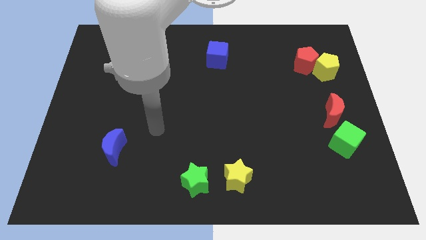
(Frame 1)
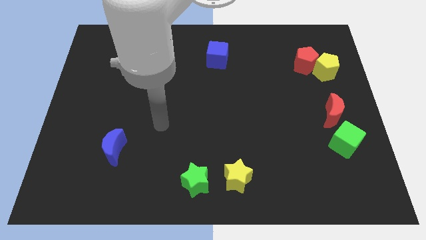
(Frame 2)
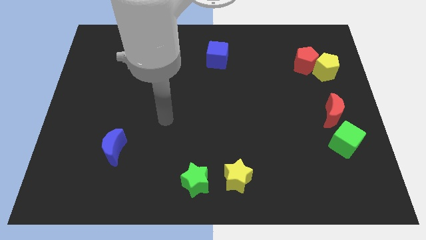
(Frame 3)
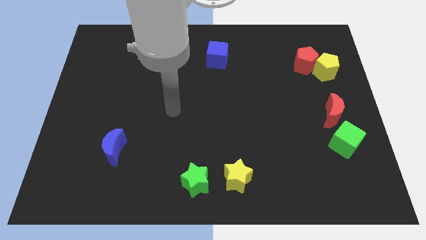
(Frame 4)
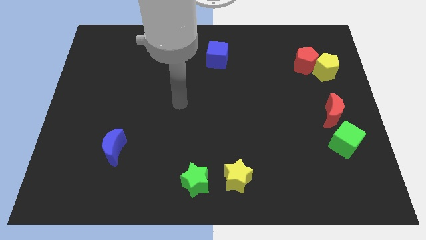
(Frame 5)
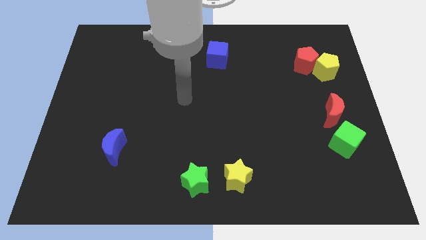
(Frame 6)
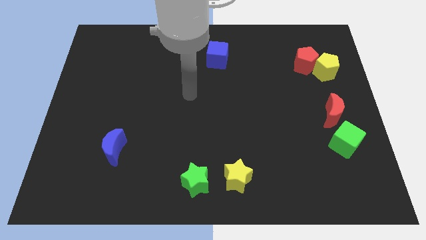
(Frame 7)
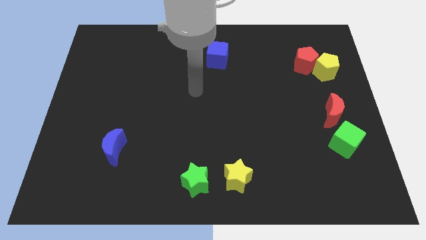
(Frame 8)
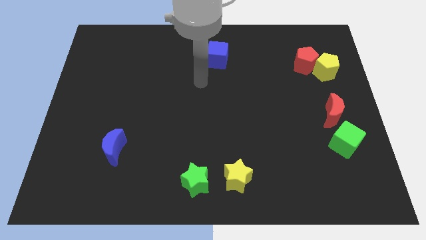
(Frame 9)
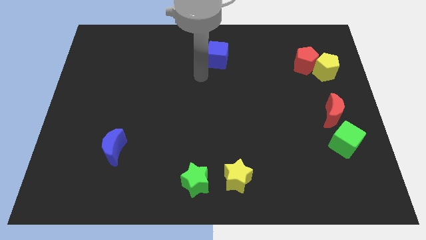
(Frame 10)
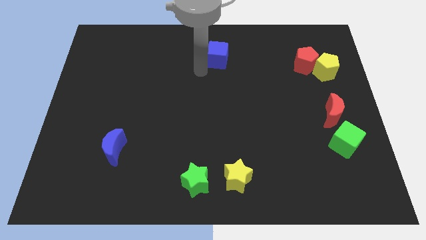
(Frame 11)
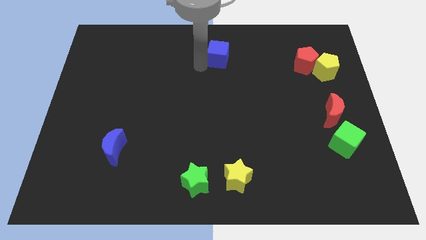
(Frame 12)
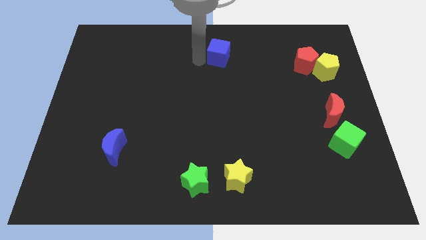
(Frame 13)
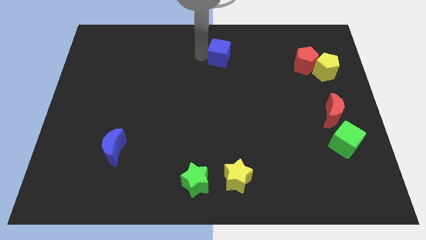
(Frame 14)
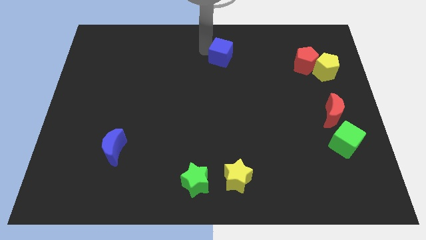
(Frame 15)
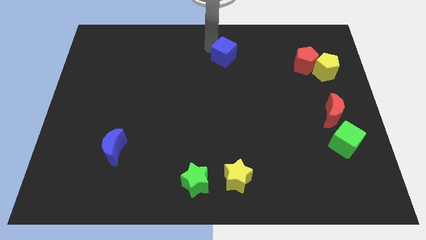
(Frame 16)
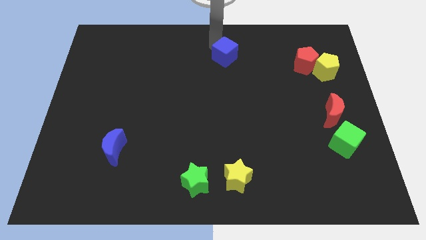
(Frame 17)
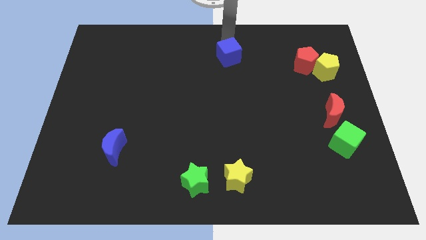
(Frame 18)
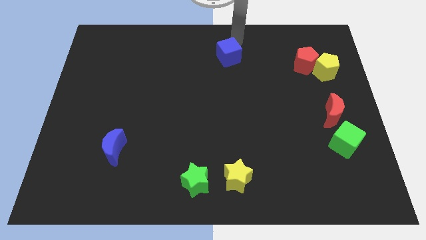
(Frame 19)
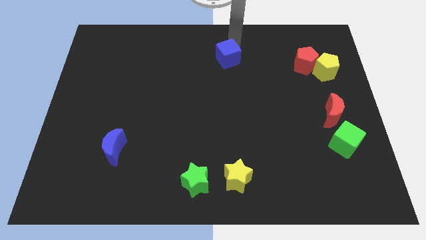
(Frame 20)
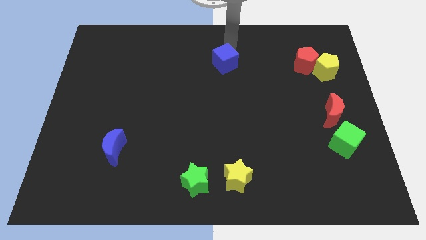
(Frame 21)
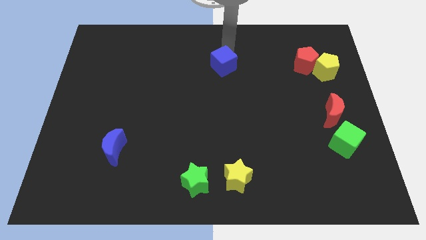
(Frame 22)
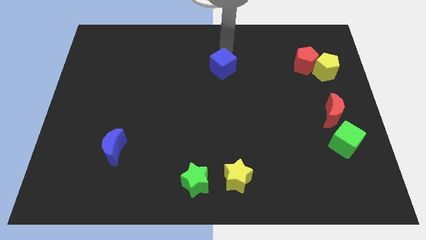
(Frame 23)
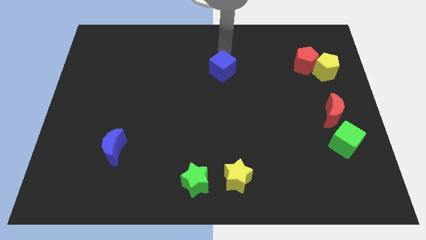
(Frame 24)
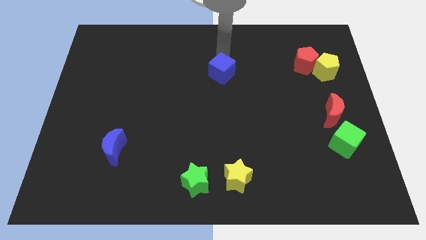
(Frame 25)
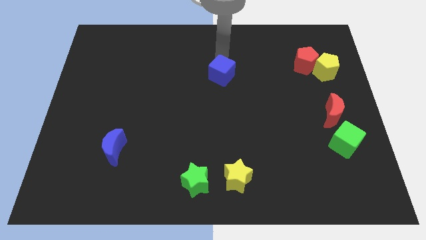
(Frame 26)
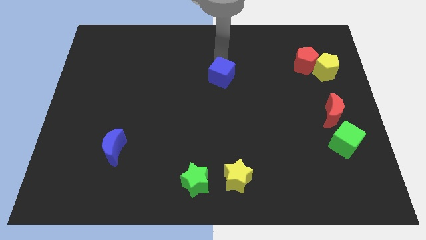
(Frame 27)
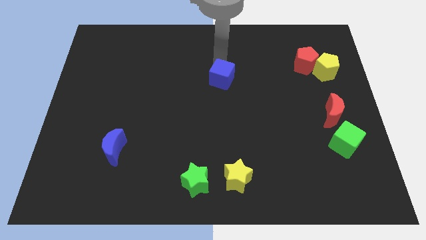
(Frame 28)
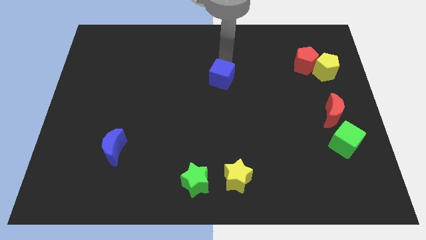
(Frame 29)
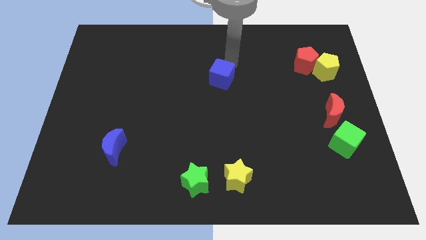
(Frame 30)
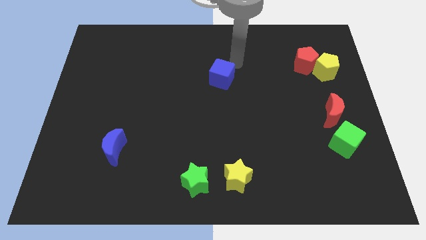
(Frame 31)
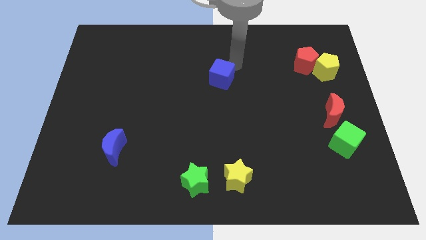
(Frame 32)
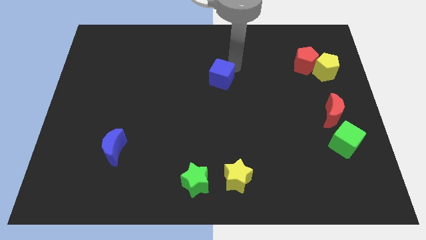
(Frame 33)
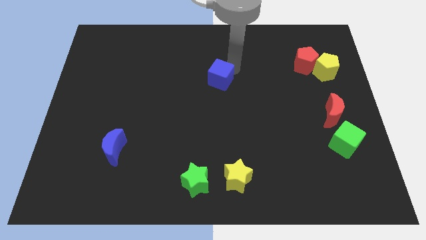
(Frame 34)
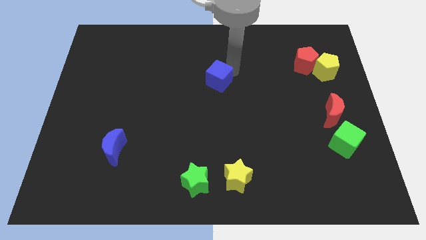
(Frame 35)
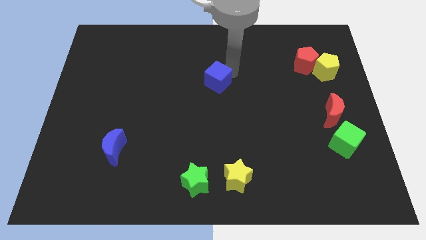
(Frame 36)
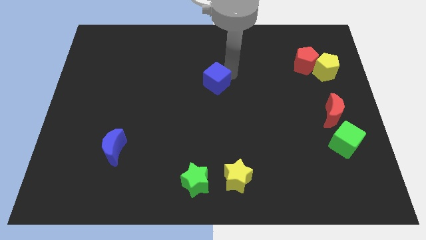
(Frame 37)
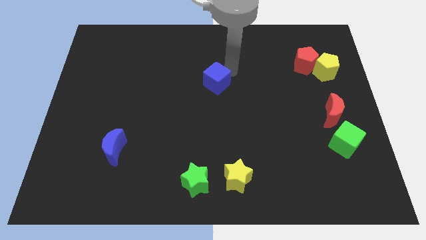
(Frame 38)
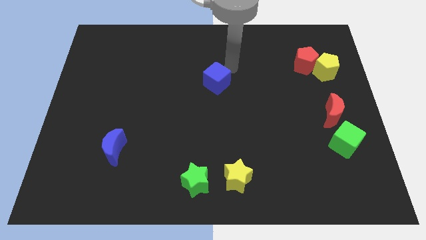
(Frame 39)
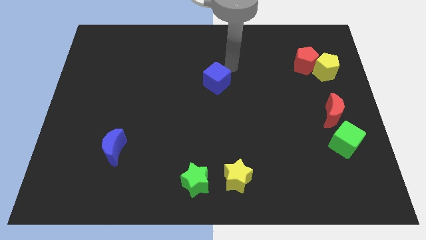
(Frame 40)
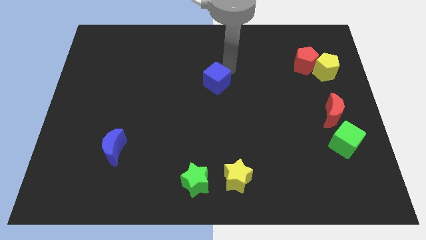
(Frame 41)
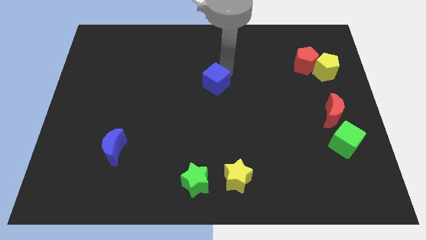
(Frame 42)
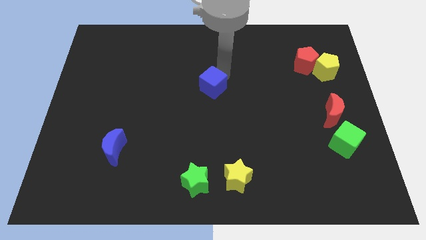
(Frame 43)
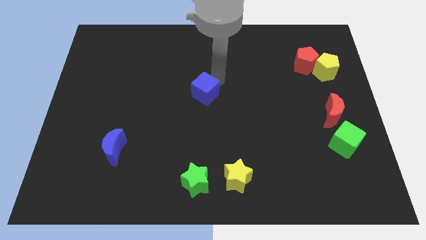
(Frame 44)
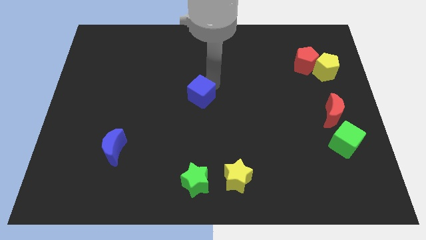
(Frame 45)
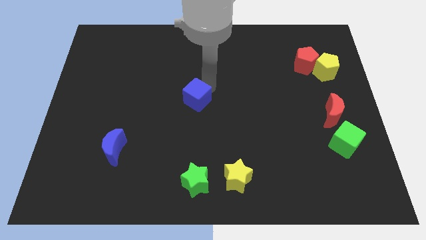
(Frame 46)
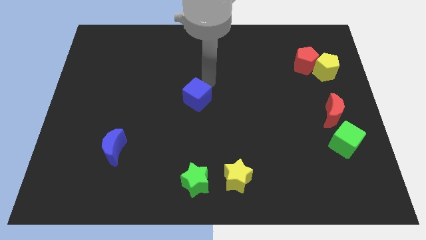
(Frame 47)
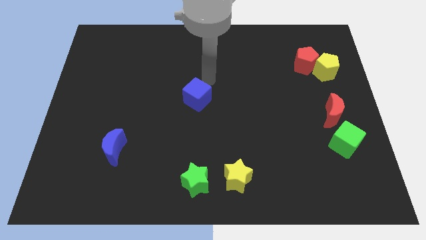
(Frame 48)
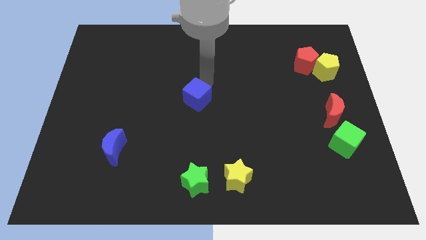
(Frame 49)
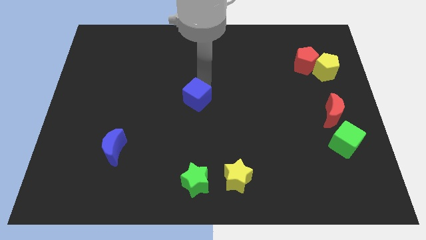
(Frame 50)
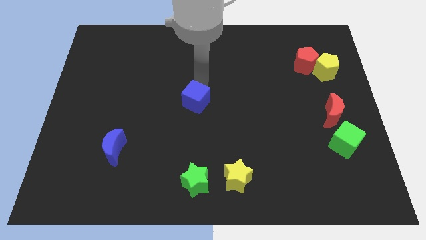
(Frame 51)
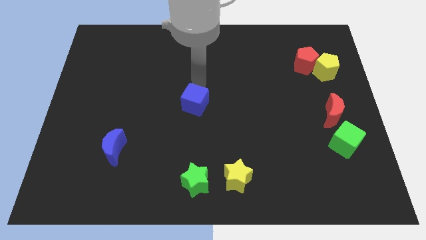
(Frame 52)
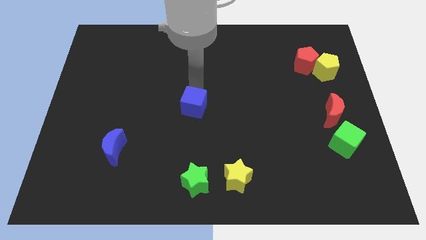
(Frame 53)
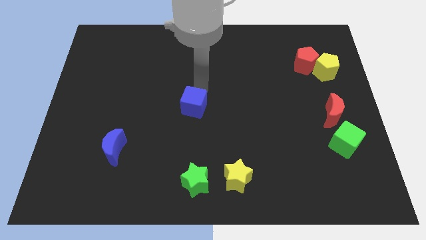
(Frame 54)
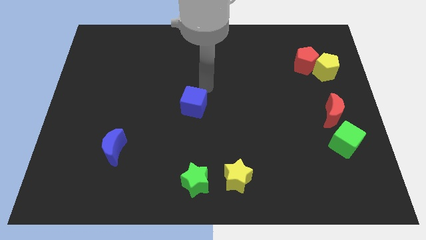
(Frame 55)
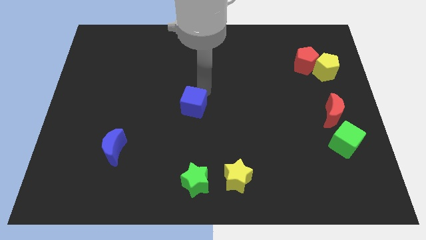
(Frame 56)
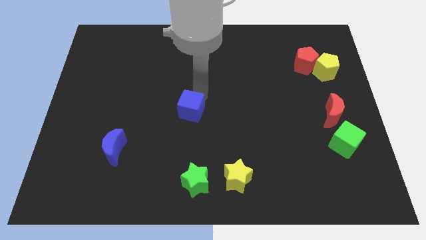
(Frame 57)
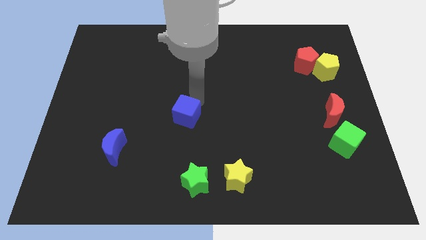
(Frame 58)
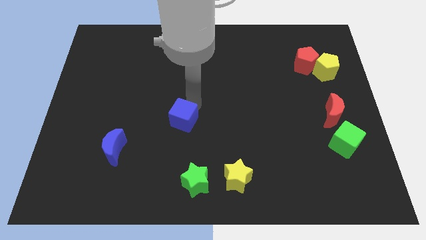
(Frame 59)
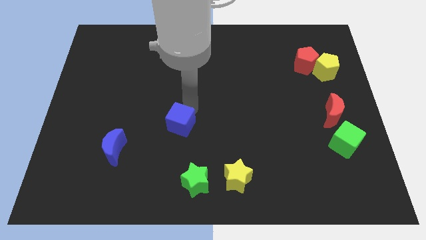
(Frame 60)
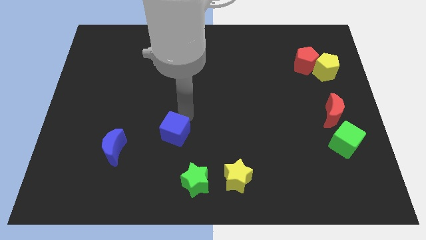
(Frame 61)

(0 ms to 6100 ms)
push the blue cube right of the blue moon
